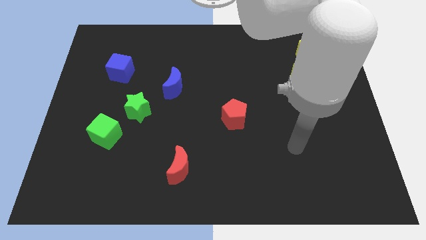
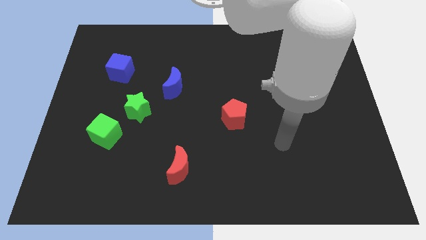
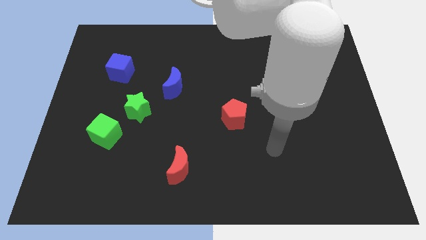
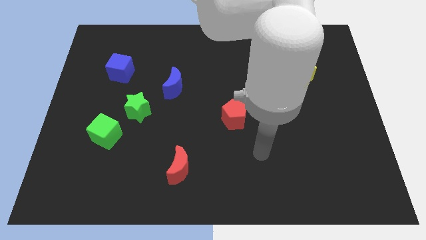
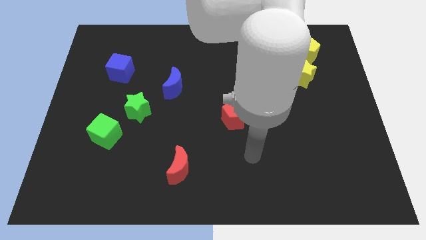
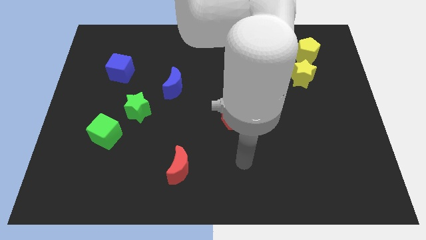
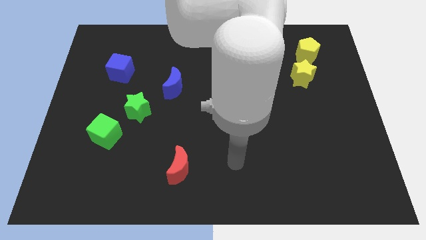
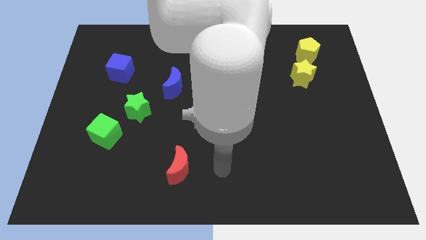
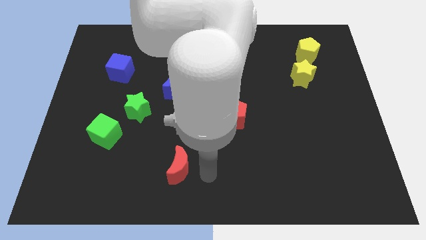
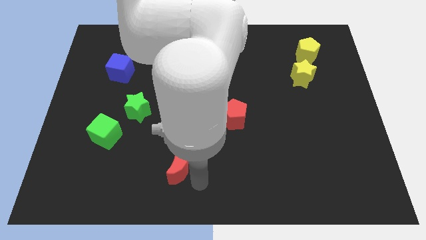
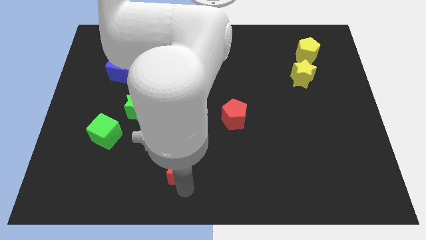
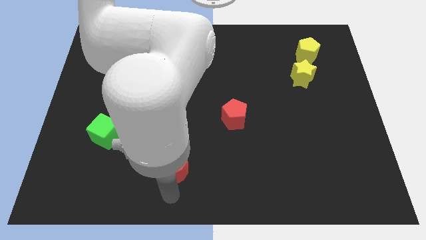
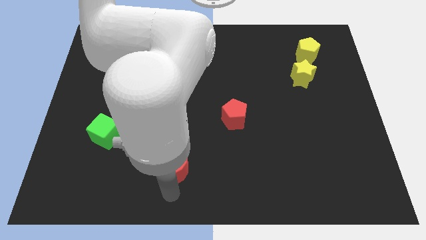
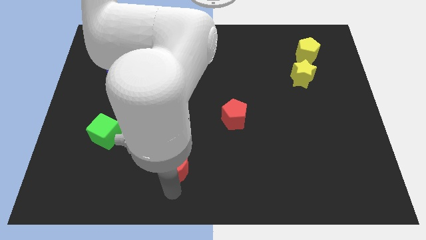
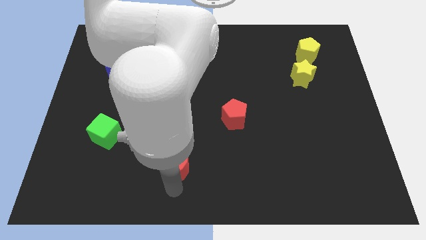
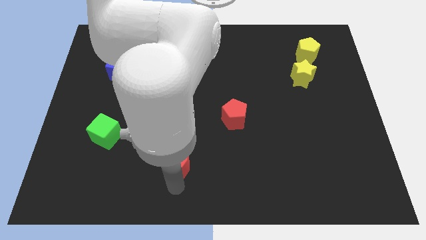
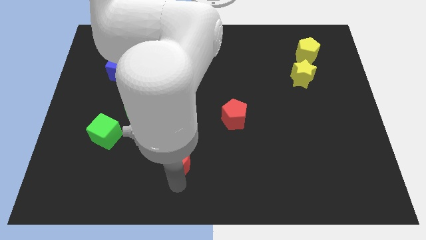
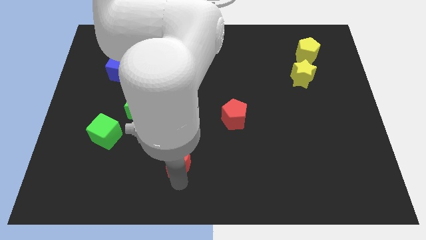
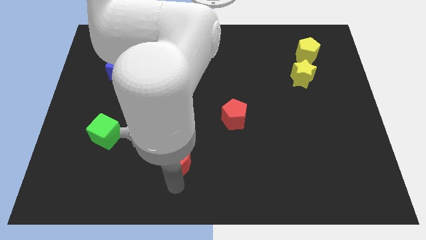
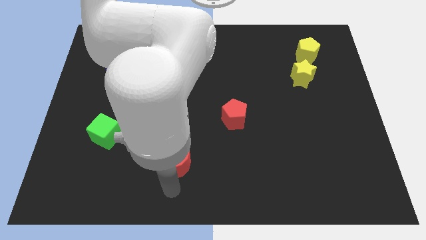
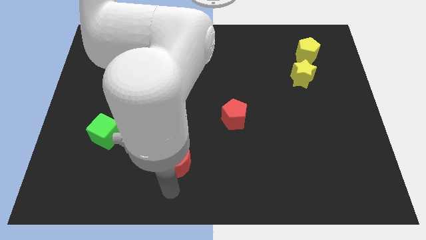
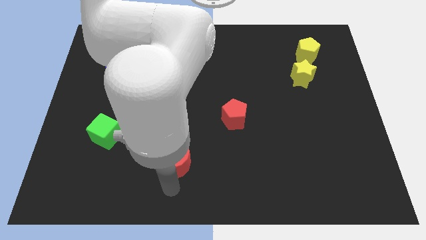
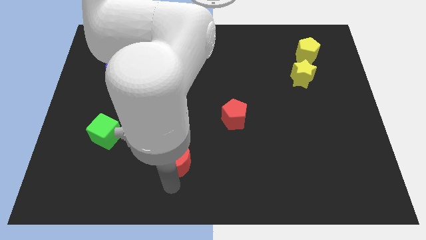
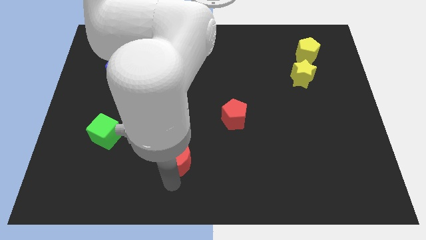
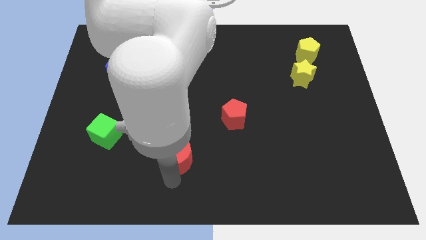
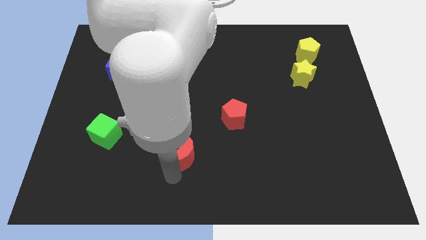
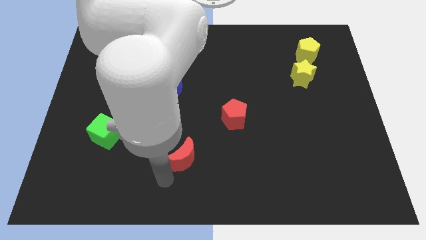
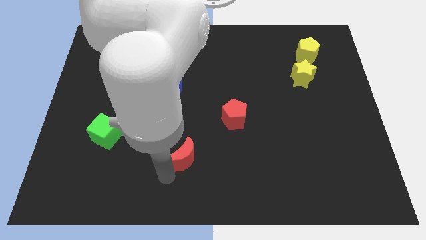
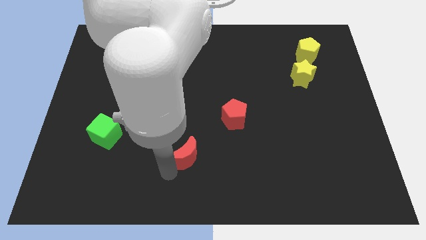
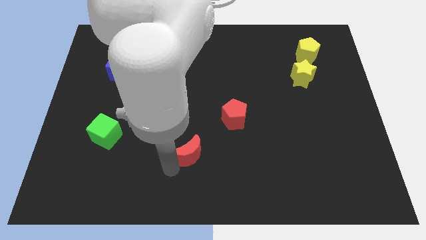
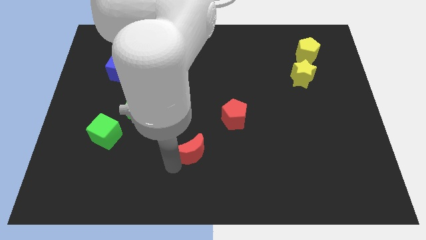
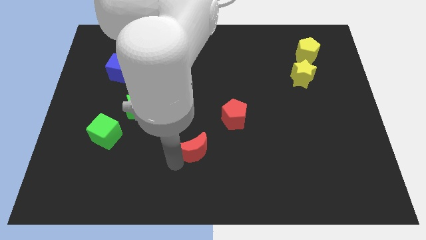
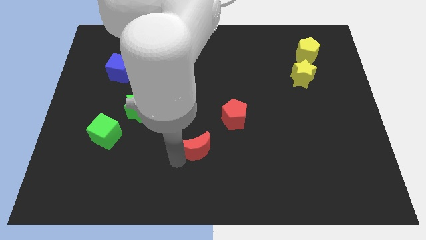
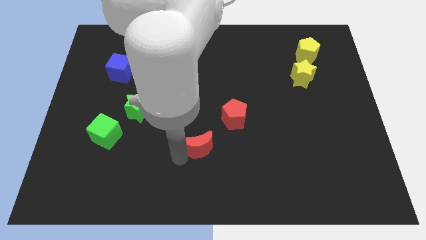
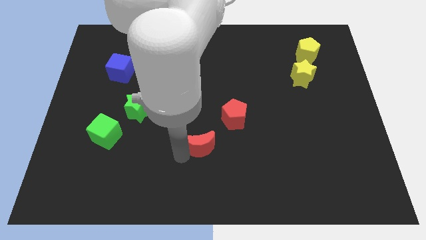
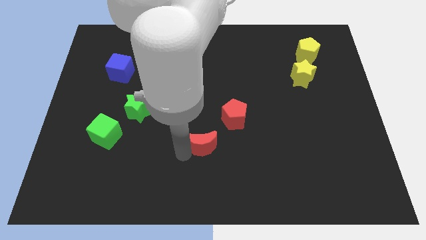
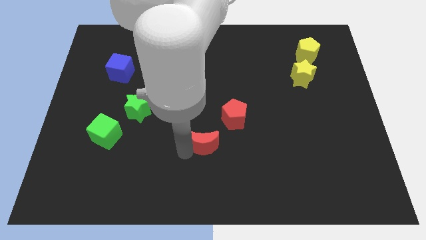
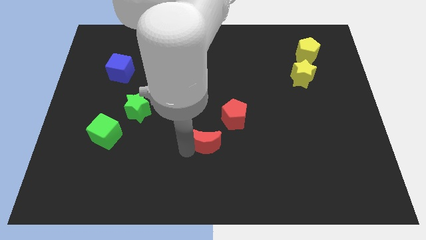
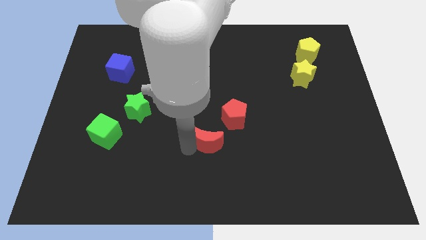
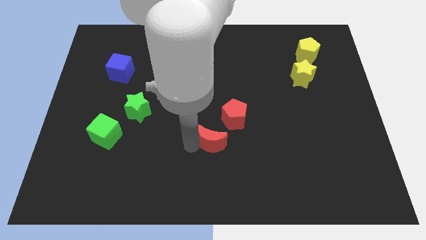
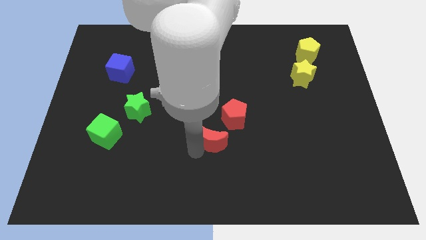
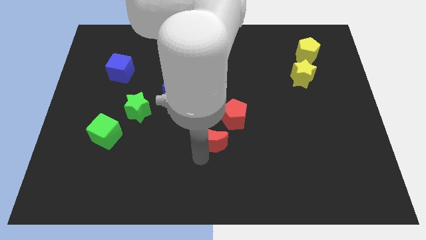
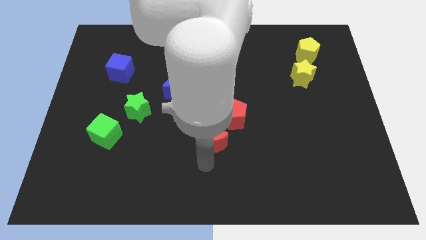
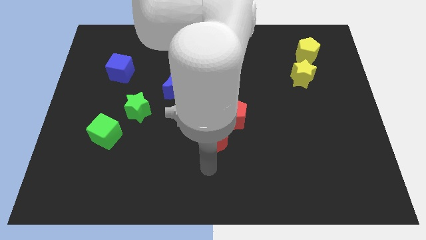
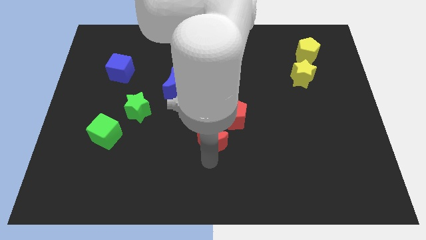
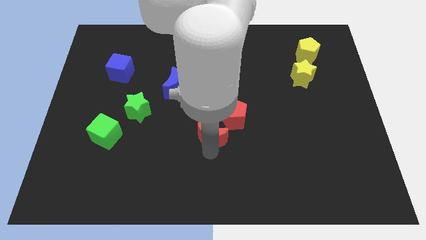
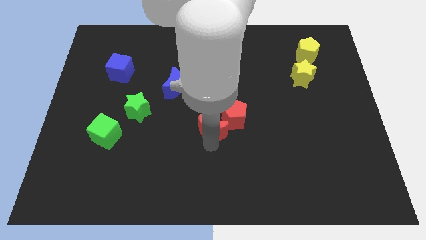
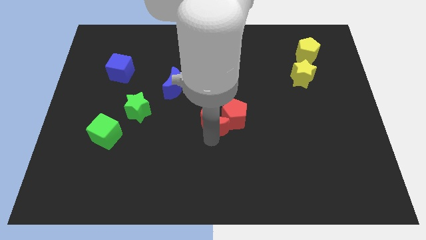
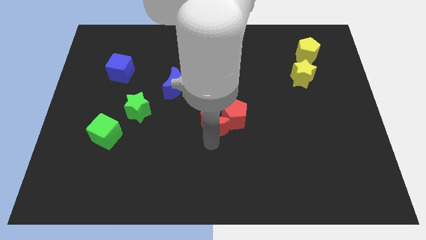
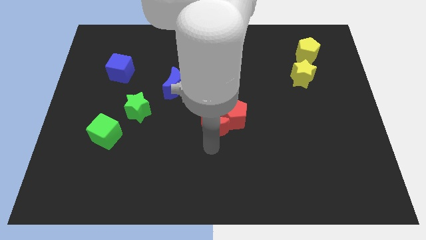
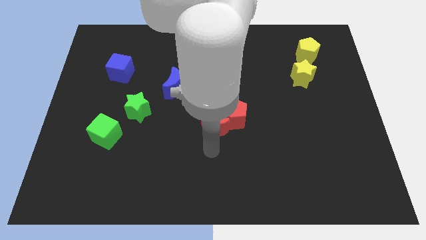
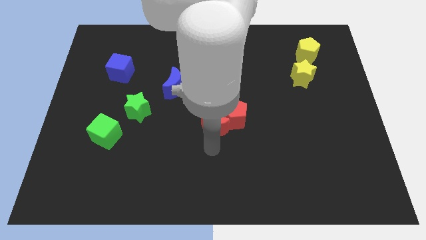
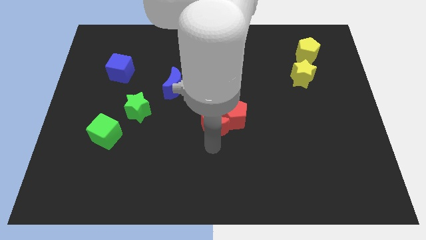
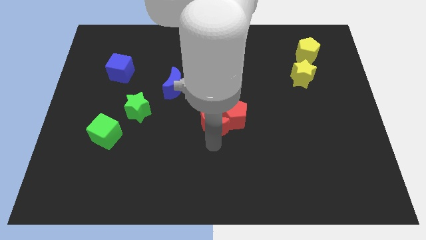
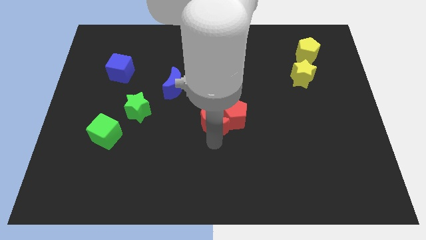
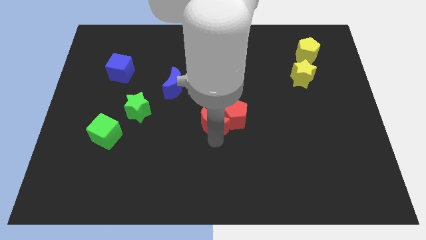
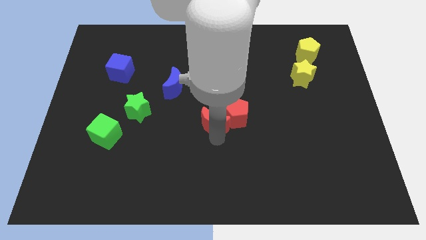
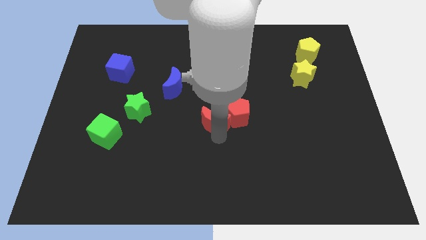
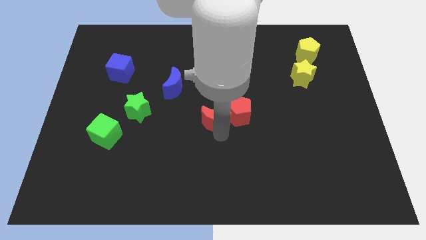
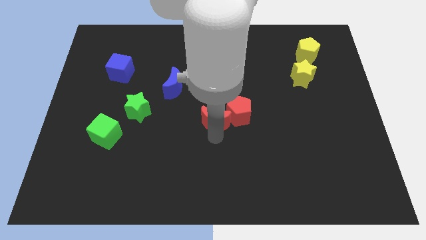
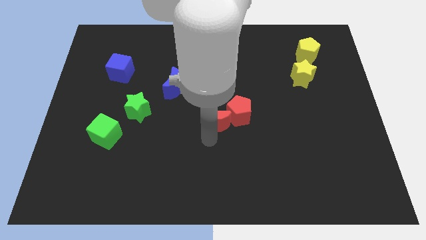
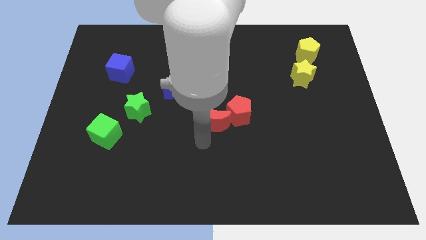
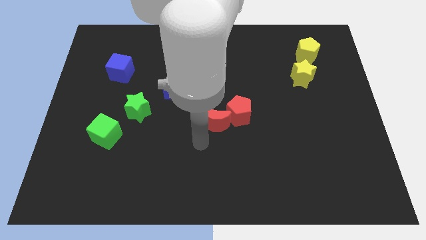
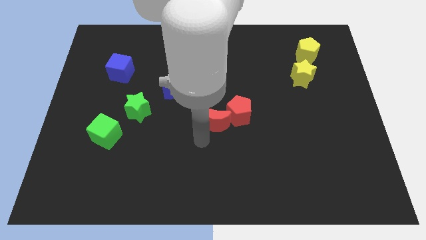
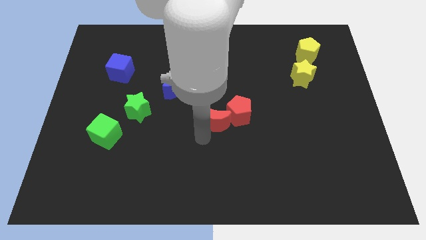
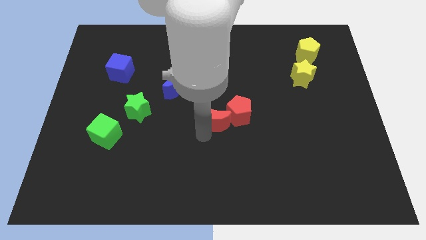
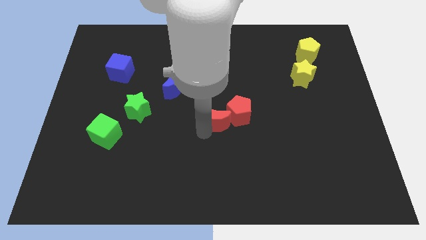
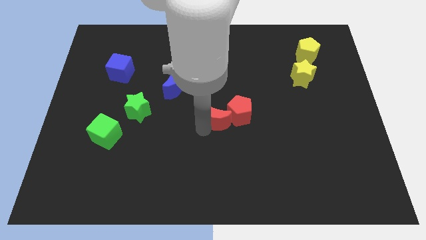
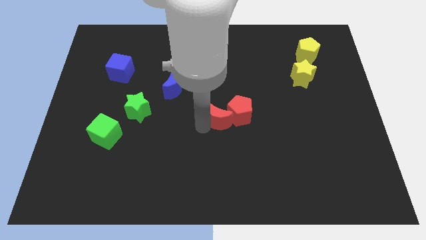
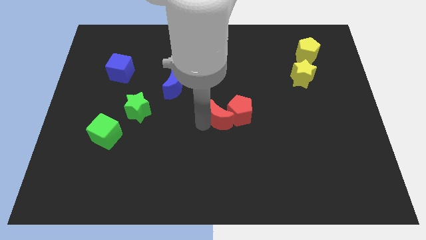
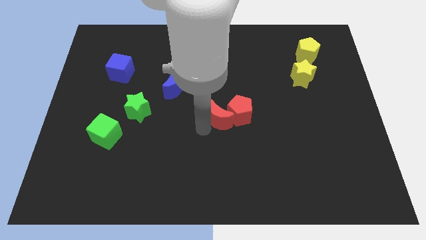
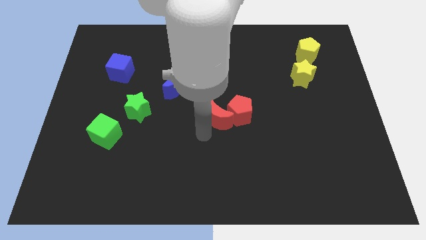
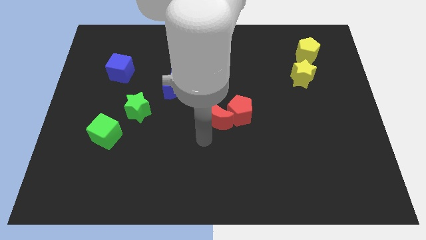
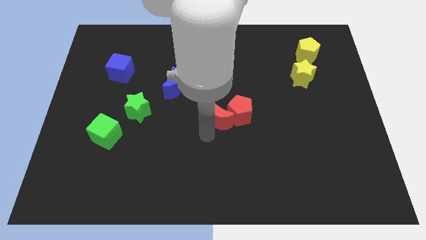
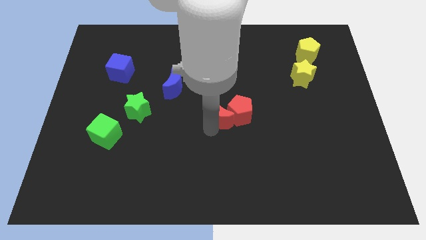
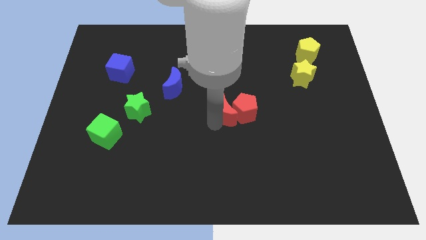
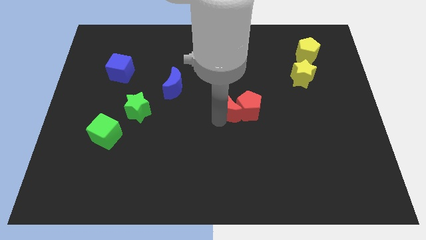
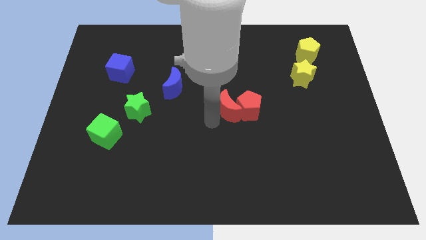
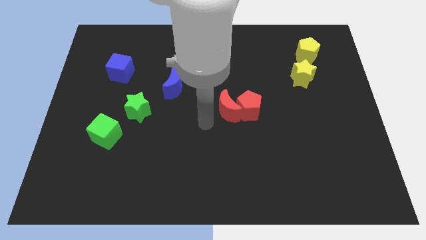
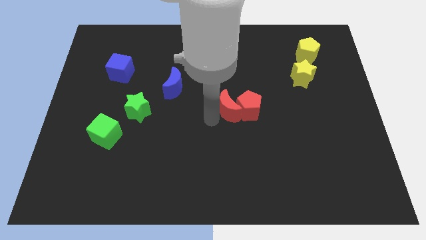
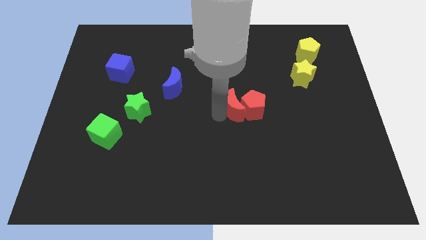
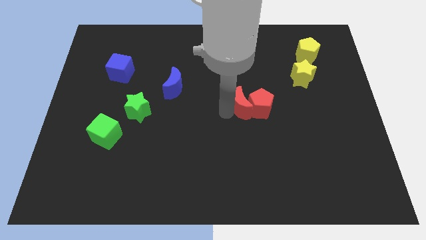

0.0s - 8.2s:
slide the red moon upwards and right diagonally
